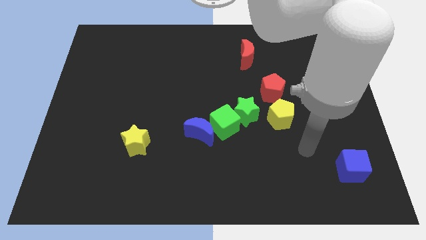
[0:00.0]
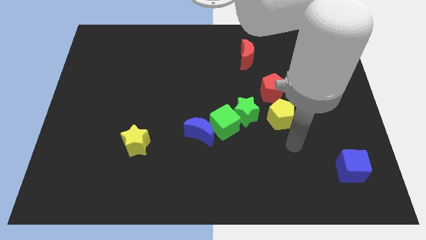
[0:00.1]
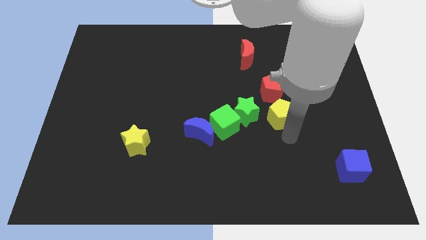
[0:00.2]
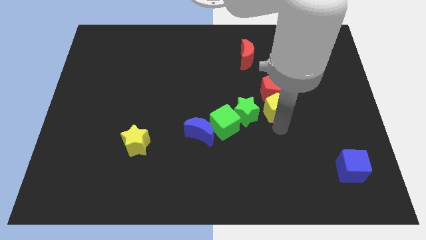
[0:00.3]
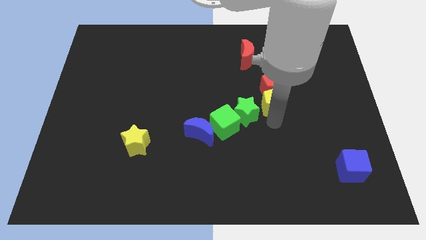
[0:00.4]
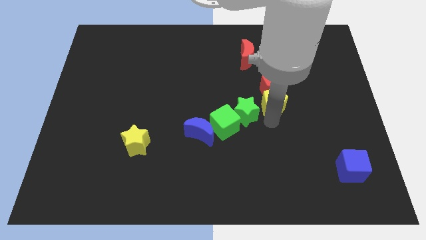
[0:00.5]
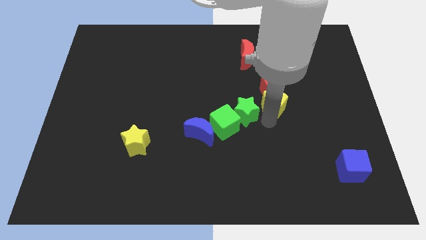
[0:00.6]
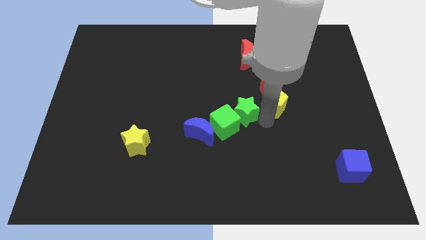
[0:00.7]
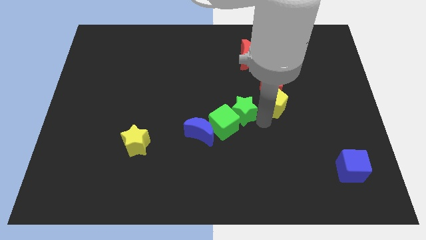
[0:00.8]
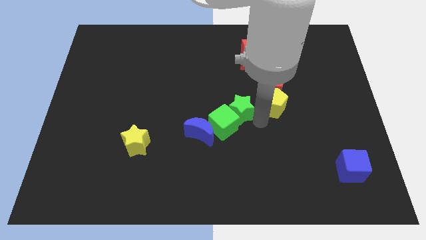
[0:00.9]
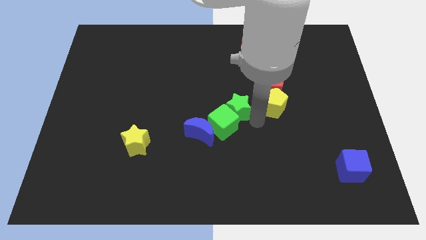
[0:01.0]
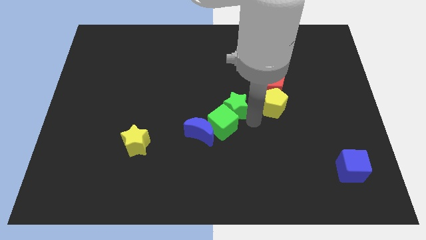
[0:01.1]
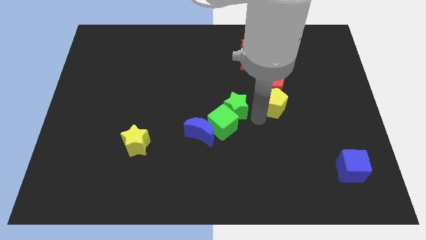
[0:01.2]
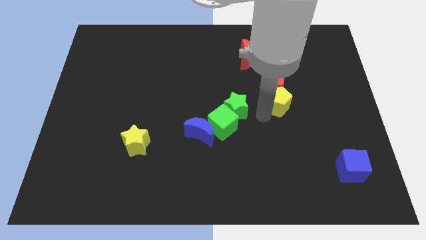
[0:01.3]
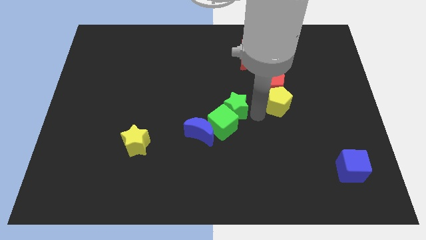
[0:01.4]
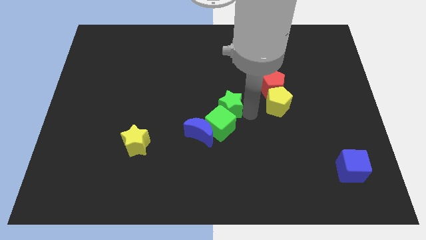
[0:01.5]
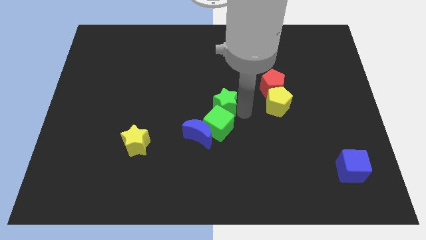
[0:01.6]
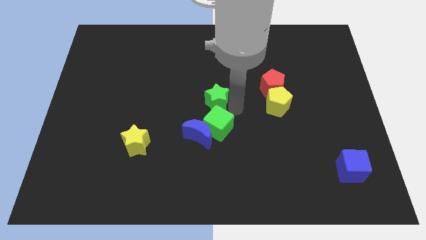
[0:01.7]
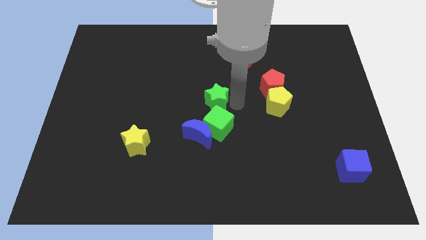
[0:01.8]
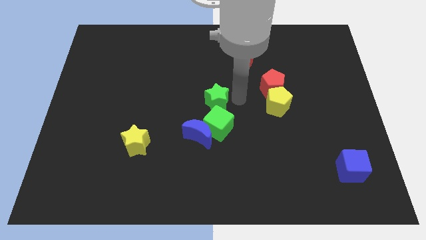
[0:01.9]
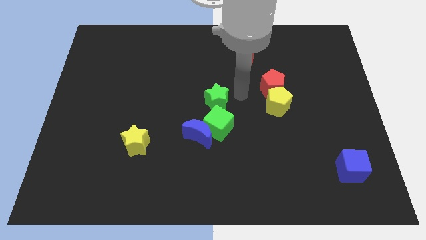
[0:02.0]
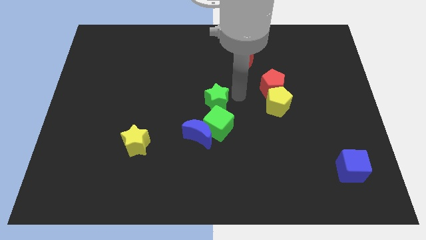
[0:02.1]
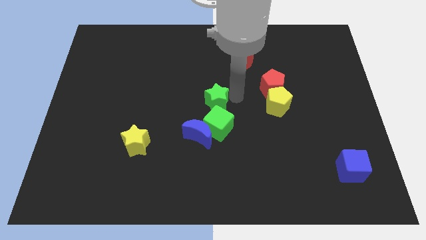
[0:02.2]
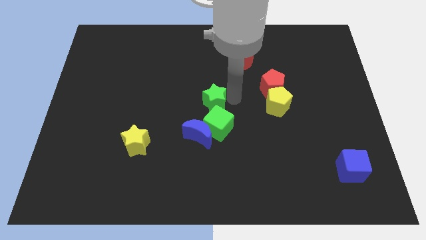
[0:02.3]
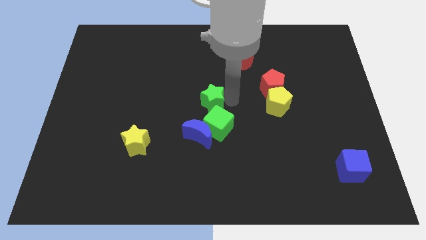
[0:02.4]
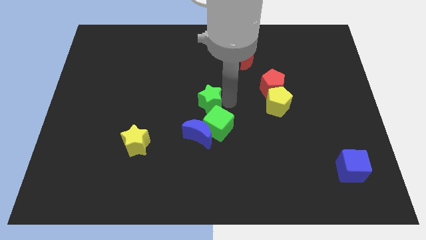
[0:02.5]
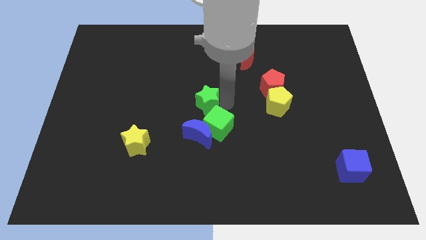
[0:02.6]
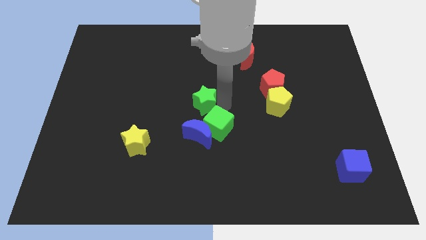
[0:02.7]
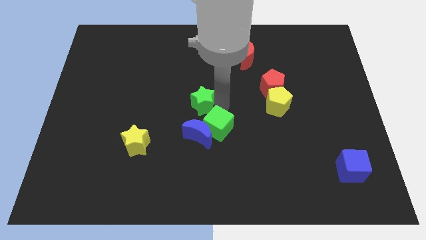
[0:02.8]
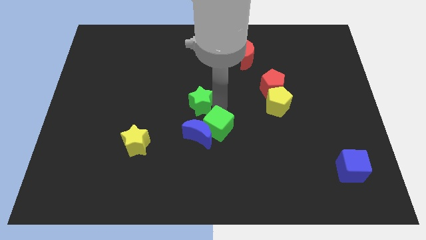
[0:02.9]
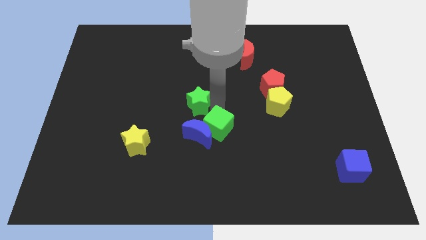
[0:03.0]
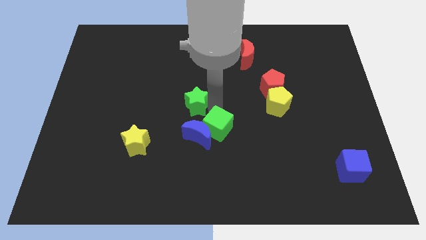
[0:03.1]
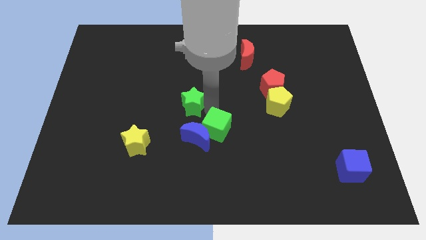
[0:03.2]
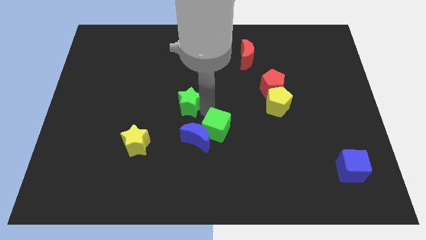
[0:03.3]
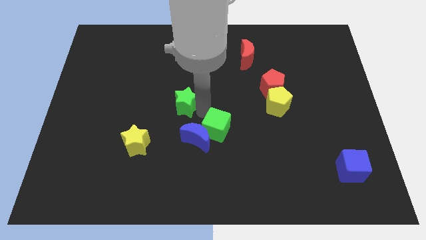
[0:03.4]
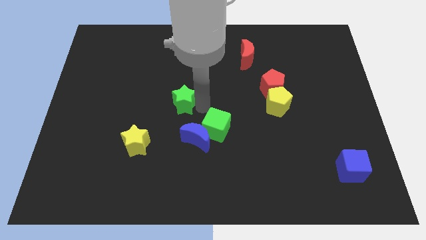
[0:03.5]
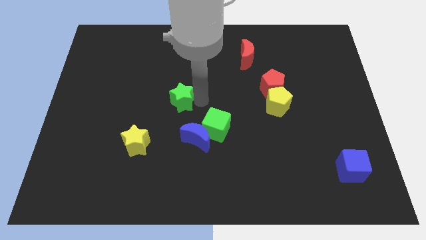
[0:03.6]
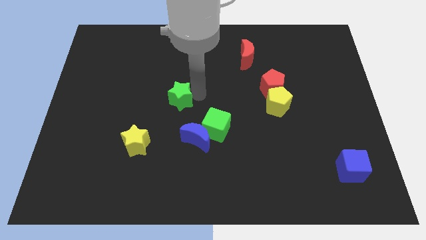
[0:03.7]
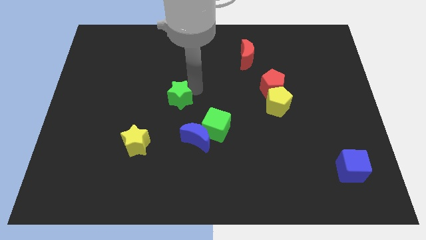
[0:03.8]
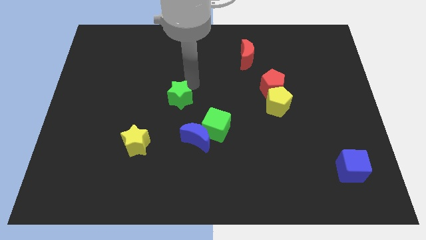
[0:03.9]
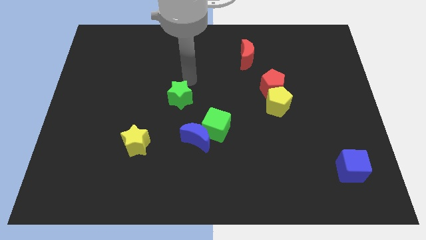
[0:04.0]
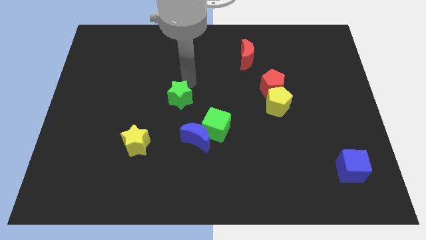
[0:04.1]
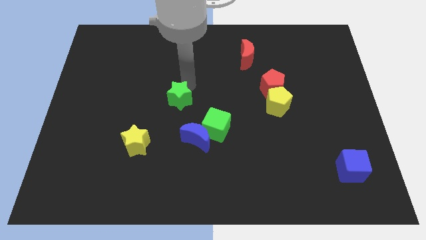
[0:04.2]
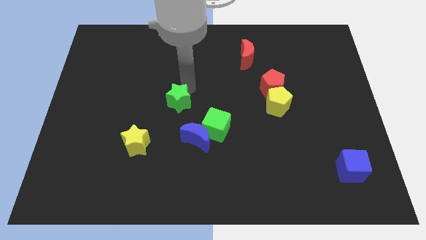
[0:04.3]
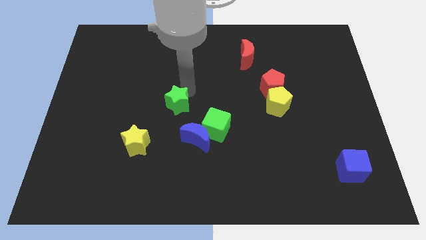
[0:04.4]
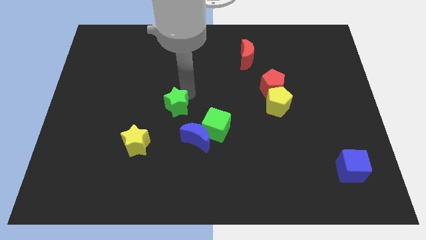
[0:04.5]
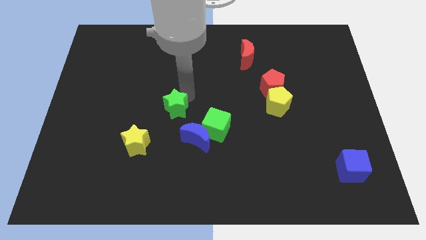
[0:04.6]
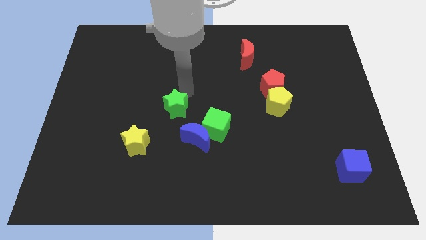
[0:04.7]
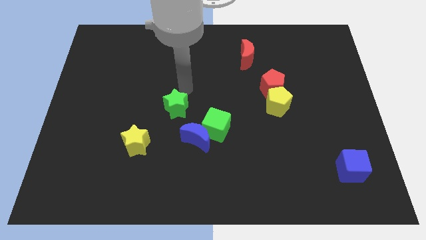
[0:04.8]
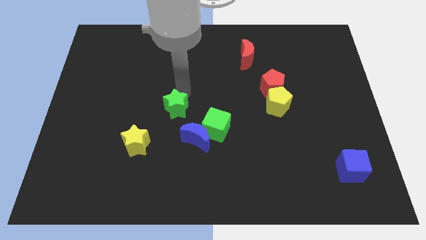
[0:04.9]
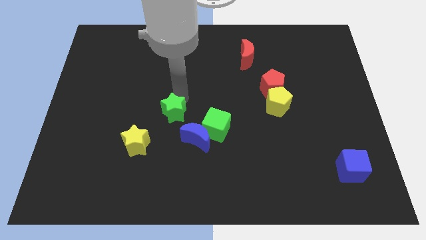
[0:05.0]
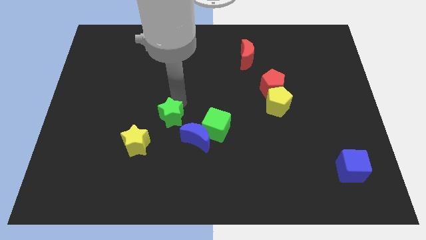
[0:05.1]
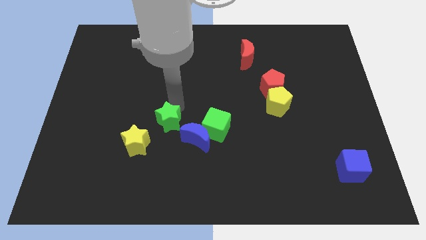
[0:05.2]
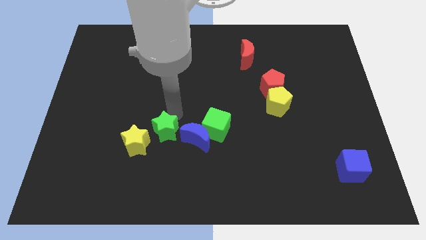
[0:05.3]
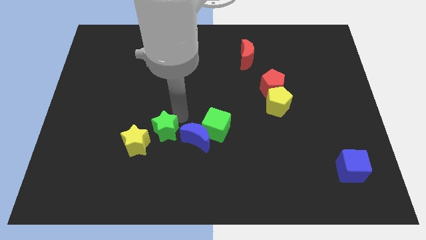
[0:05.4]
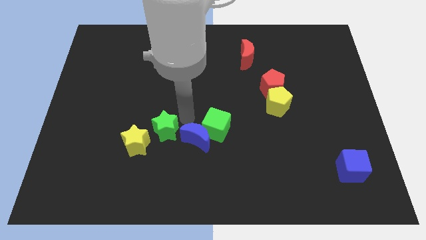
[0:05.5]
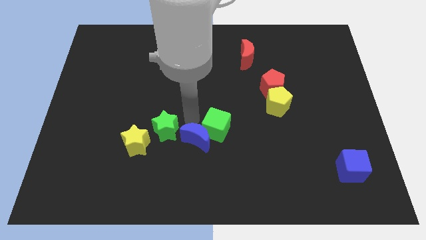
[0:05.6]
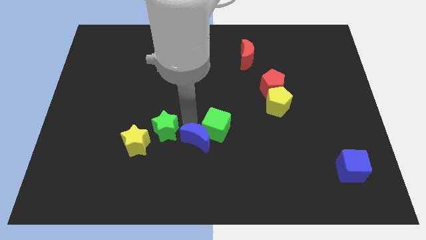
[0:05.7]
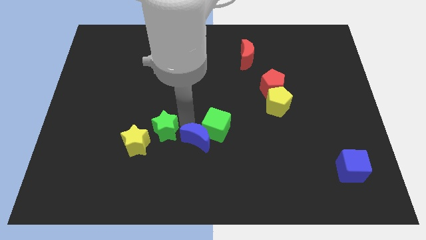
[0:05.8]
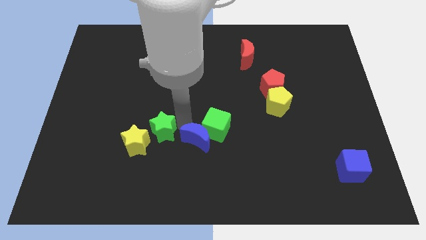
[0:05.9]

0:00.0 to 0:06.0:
slide the green star next to the yellow star

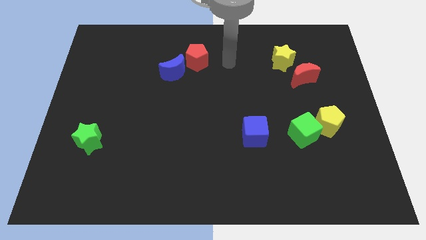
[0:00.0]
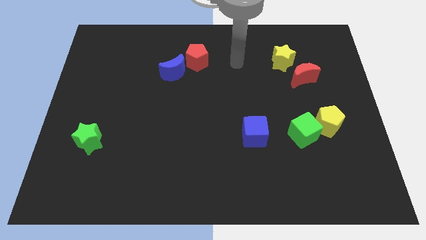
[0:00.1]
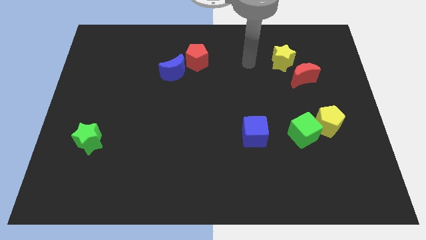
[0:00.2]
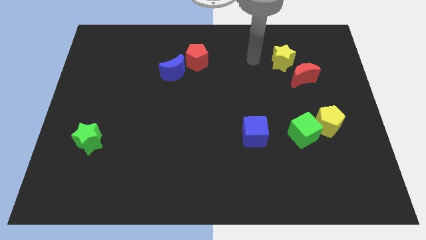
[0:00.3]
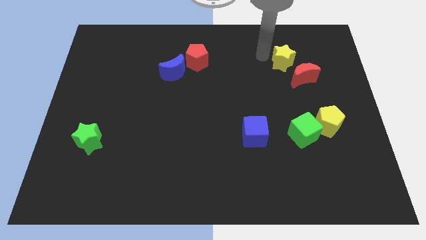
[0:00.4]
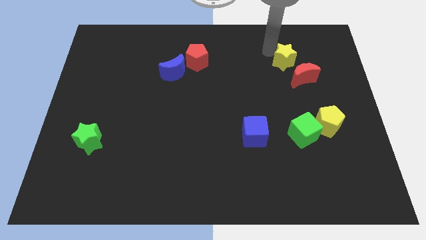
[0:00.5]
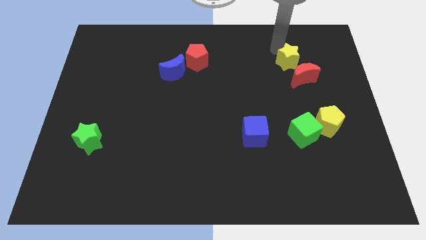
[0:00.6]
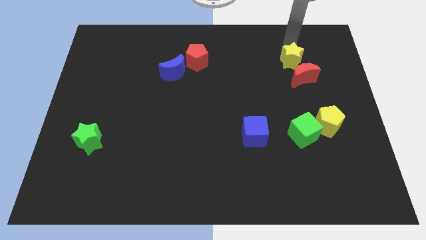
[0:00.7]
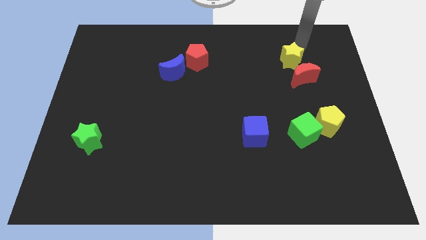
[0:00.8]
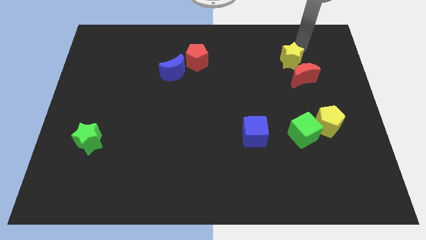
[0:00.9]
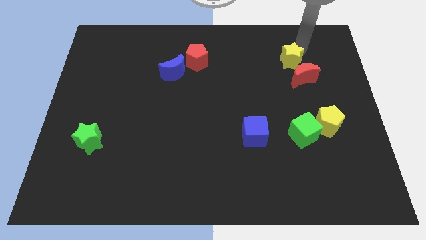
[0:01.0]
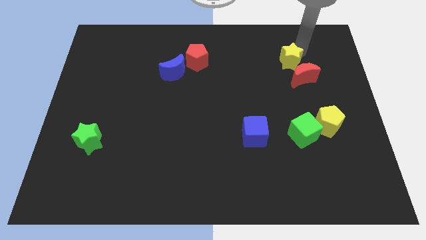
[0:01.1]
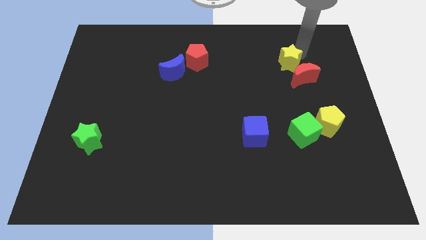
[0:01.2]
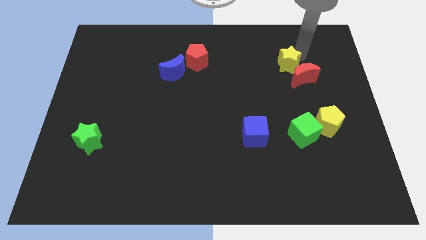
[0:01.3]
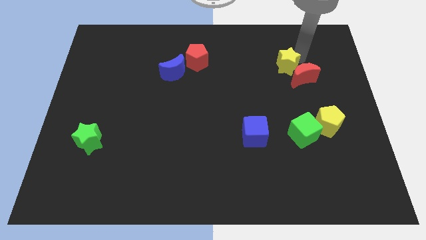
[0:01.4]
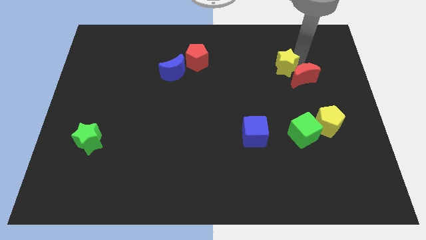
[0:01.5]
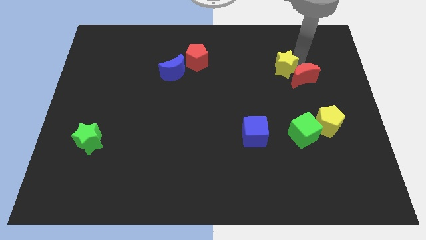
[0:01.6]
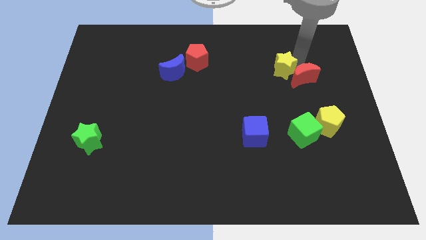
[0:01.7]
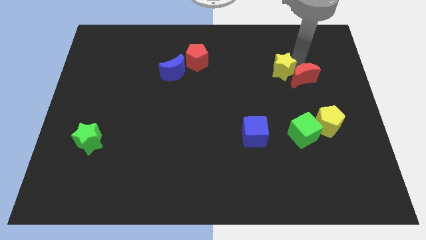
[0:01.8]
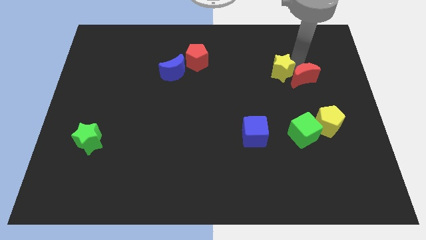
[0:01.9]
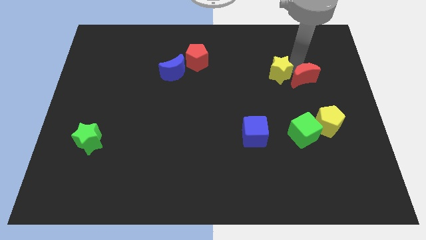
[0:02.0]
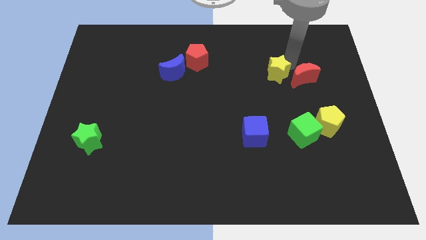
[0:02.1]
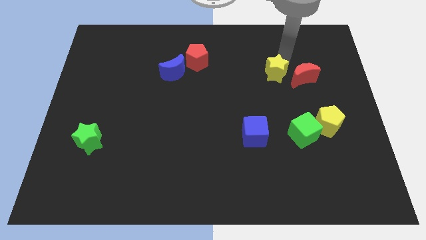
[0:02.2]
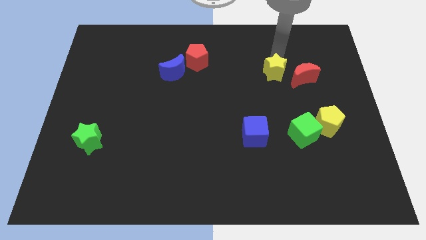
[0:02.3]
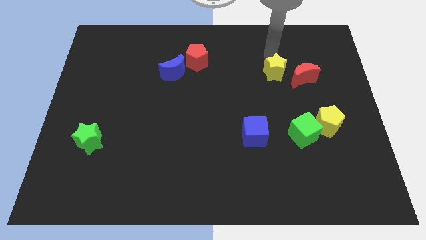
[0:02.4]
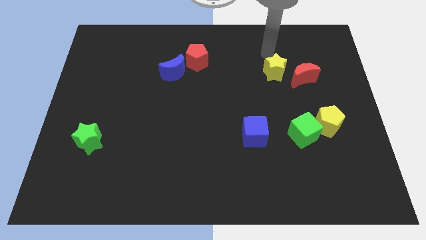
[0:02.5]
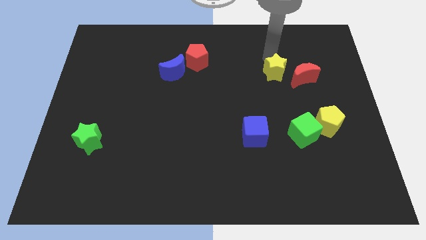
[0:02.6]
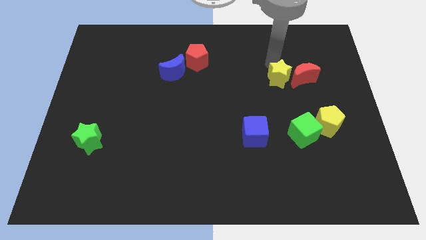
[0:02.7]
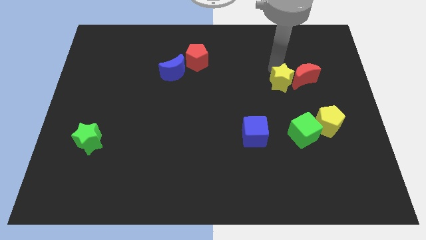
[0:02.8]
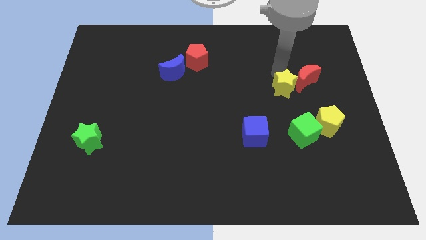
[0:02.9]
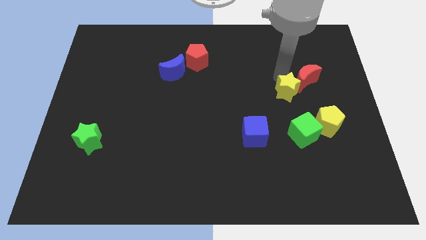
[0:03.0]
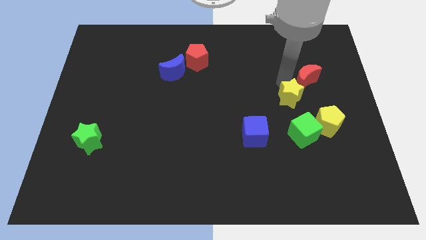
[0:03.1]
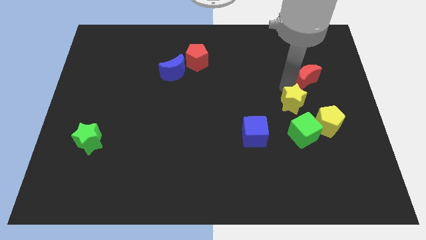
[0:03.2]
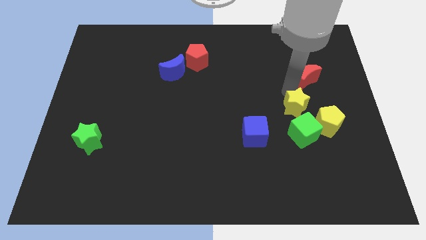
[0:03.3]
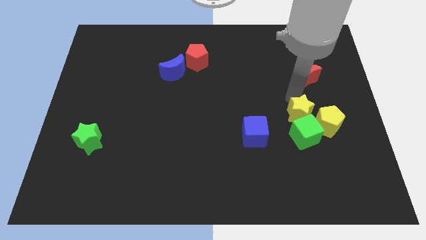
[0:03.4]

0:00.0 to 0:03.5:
push the yellow star to the green cube
